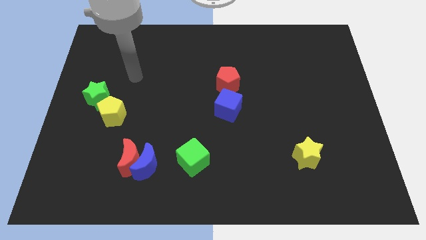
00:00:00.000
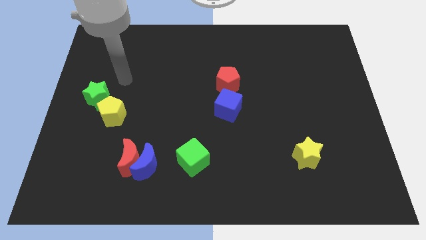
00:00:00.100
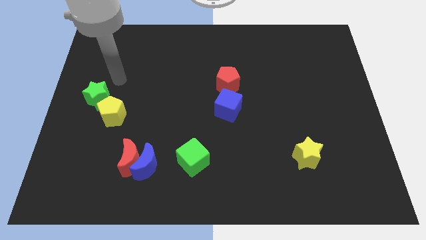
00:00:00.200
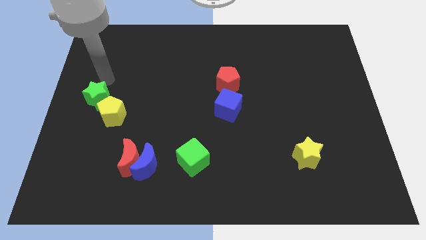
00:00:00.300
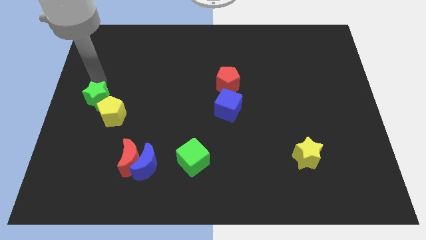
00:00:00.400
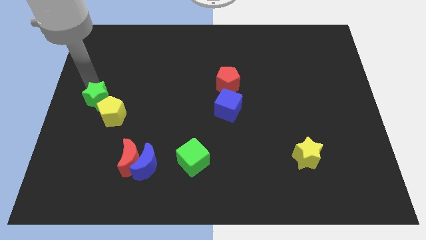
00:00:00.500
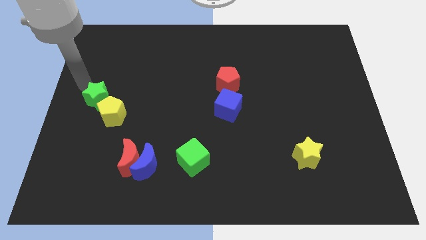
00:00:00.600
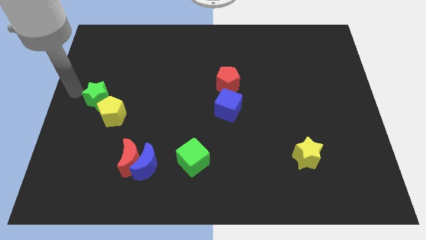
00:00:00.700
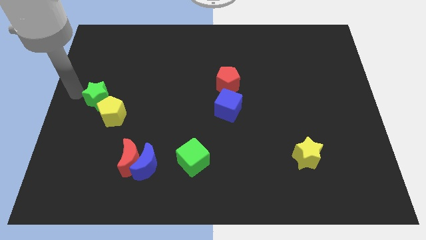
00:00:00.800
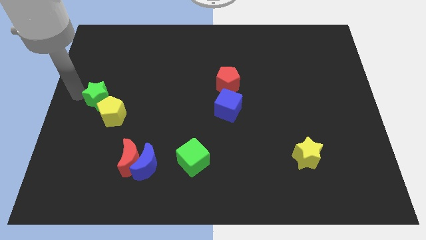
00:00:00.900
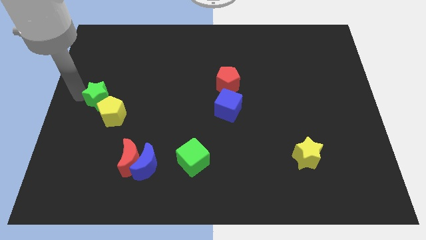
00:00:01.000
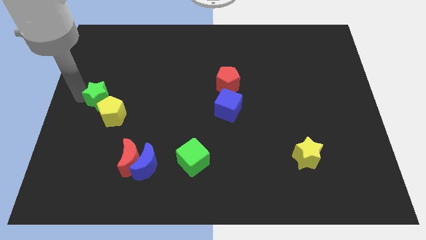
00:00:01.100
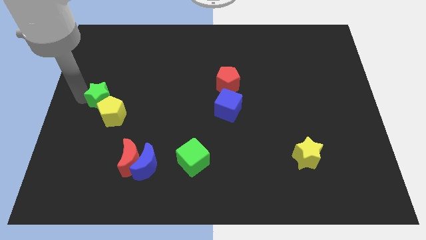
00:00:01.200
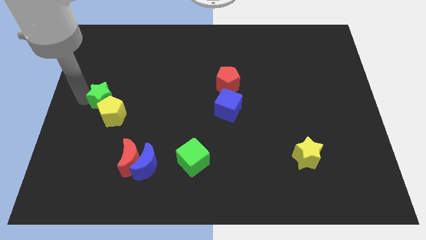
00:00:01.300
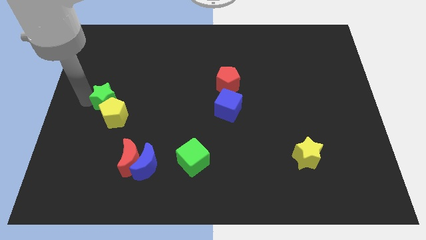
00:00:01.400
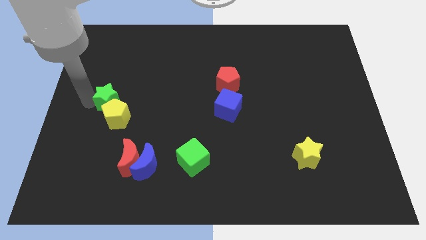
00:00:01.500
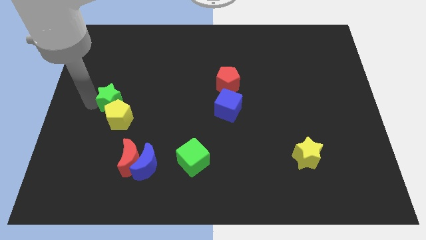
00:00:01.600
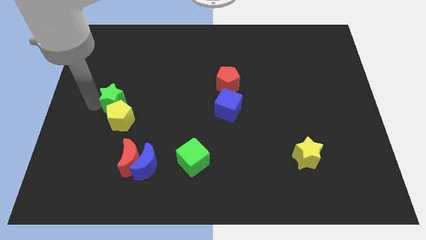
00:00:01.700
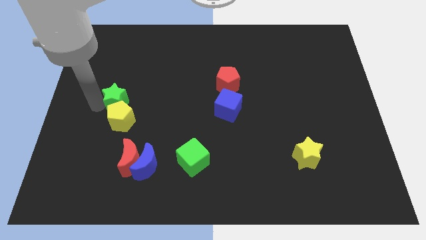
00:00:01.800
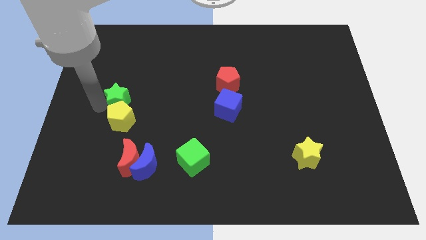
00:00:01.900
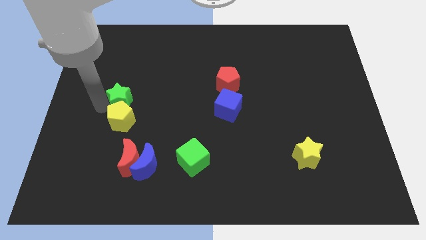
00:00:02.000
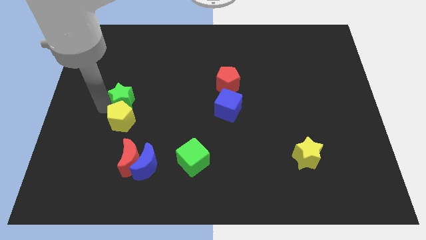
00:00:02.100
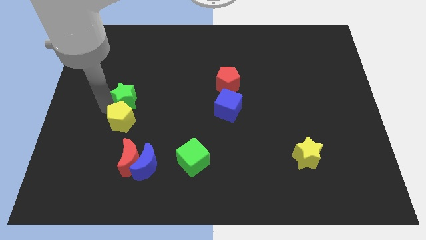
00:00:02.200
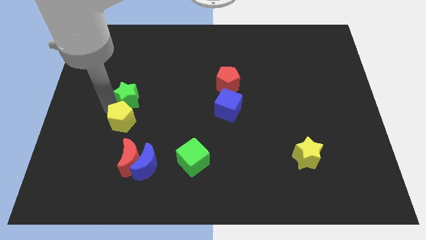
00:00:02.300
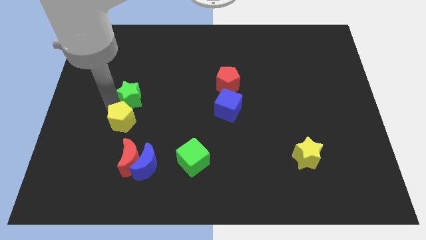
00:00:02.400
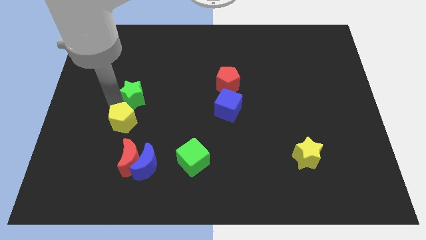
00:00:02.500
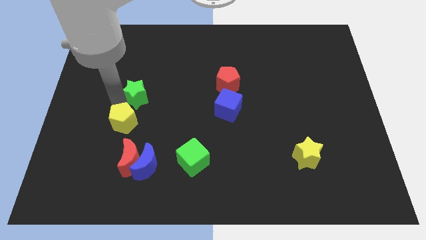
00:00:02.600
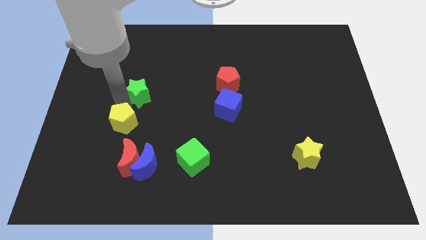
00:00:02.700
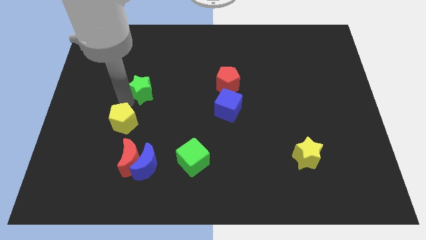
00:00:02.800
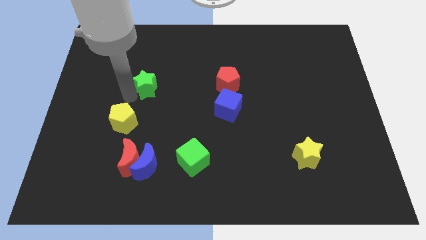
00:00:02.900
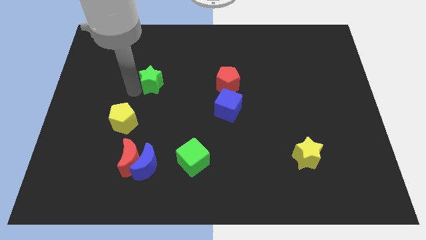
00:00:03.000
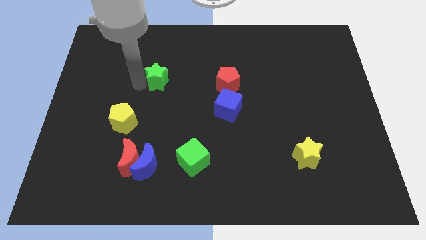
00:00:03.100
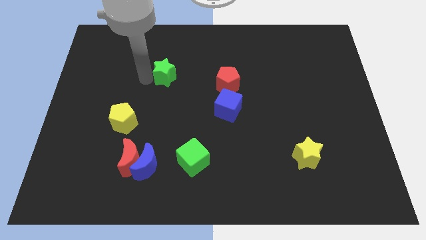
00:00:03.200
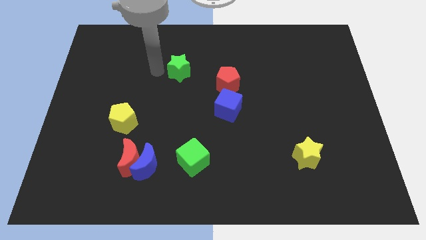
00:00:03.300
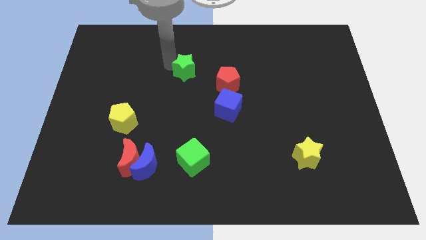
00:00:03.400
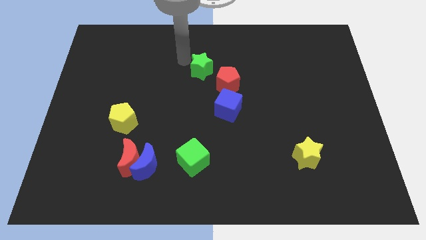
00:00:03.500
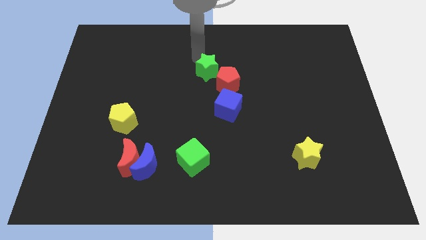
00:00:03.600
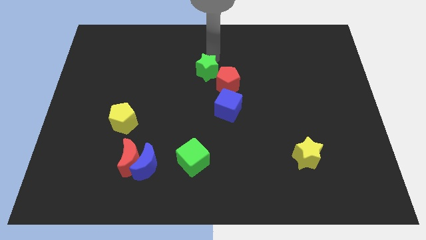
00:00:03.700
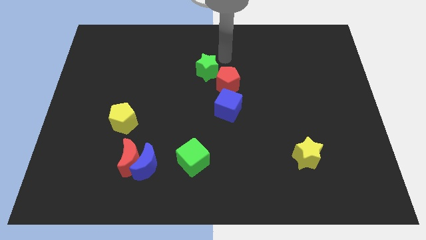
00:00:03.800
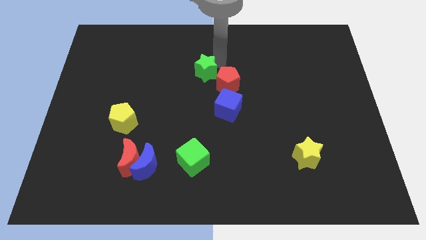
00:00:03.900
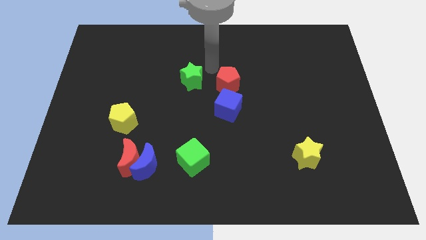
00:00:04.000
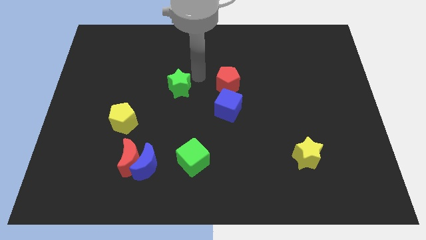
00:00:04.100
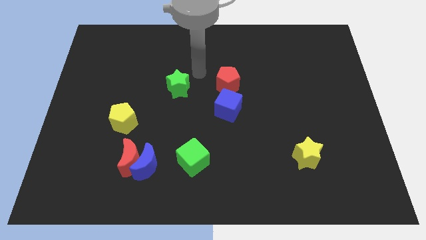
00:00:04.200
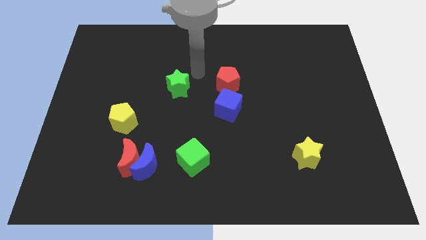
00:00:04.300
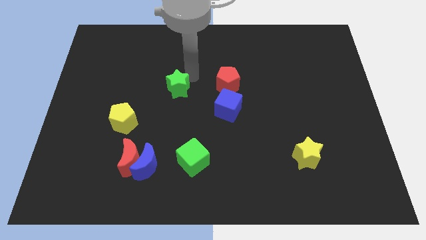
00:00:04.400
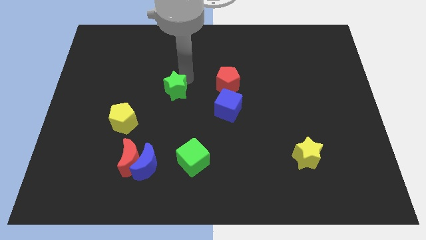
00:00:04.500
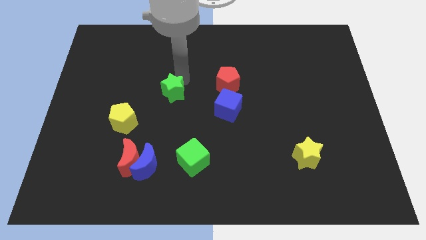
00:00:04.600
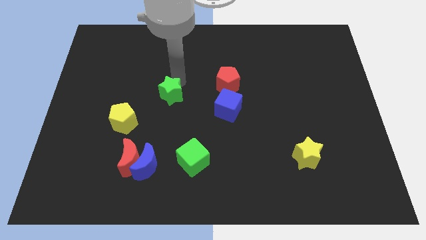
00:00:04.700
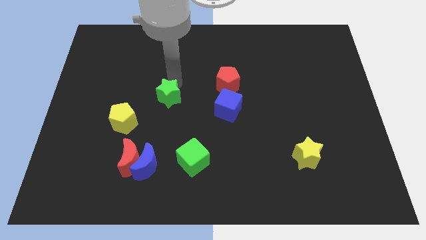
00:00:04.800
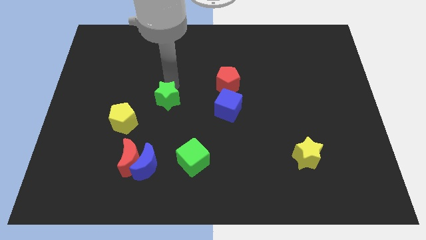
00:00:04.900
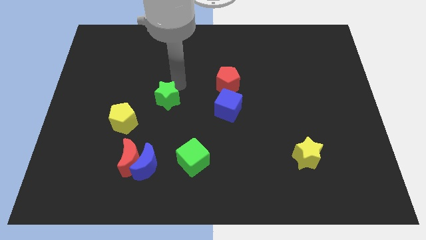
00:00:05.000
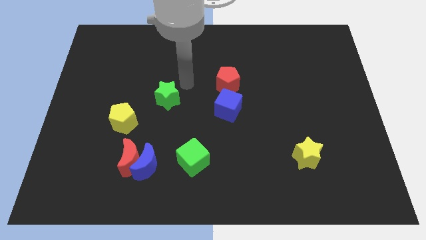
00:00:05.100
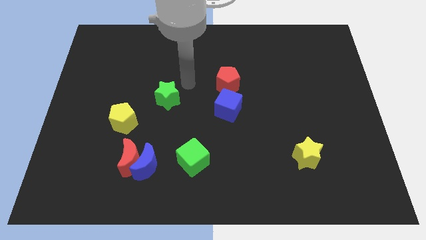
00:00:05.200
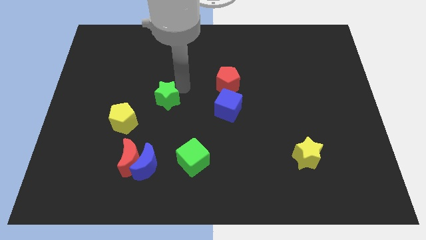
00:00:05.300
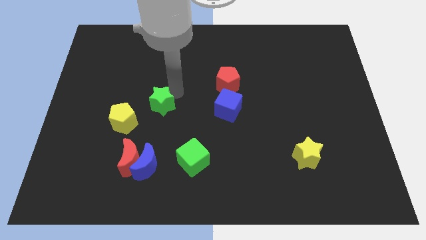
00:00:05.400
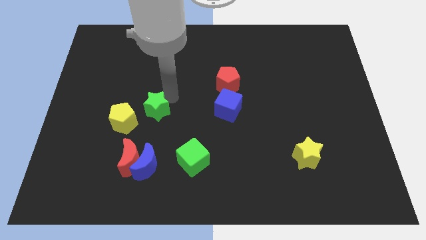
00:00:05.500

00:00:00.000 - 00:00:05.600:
put the green star to the top of the red moon

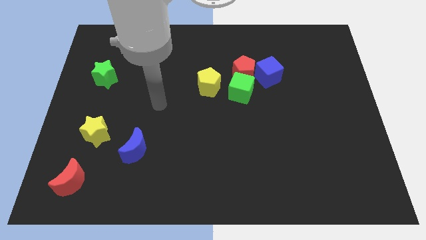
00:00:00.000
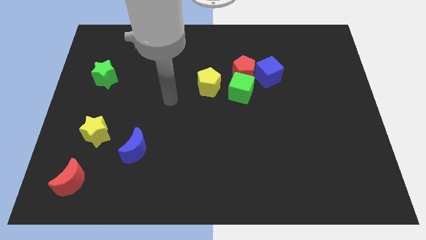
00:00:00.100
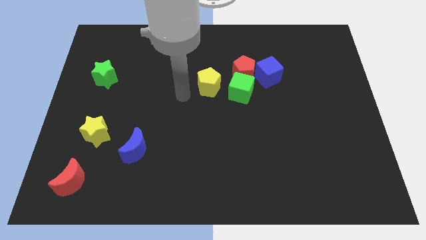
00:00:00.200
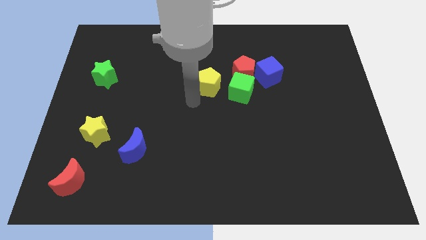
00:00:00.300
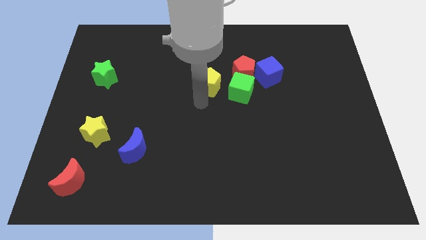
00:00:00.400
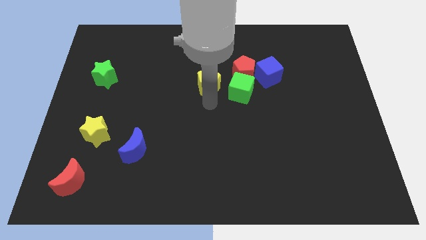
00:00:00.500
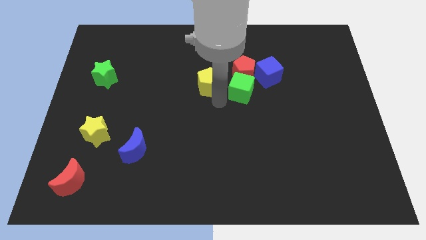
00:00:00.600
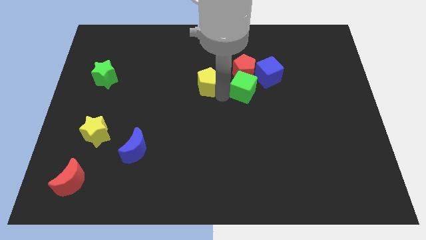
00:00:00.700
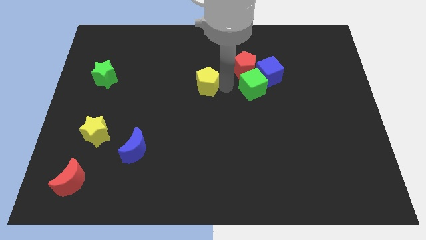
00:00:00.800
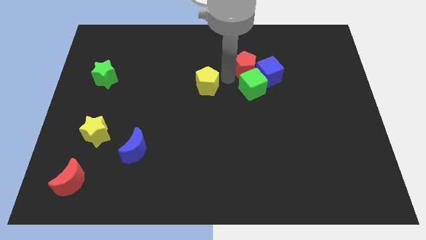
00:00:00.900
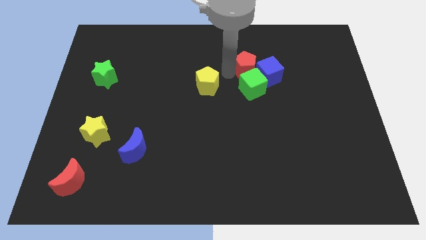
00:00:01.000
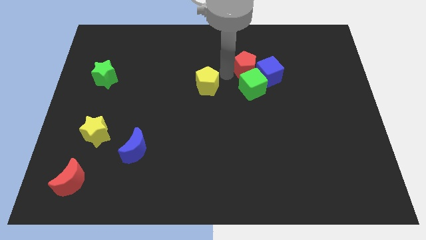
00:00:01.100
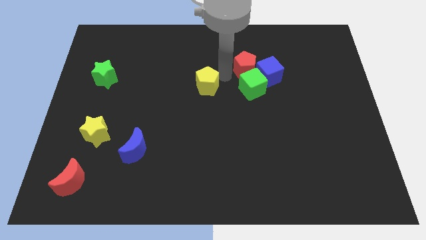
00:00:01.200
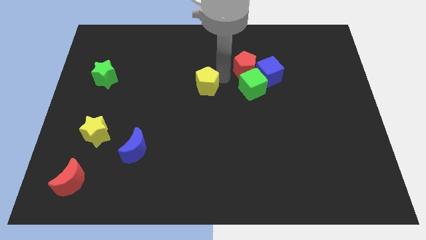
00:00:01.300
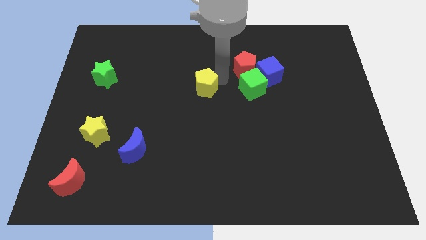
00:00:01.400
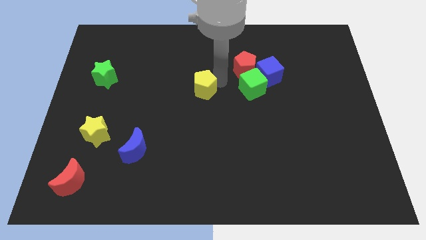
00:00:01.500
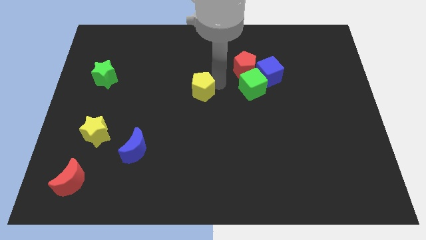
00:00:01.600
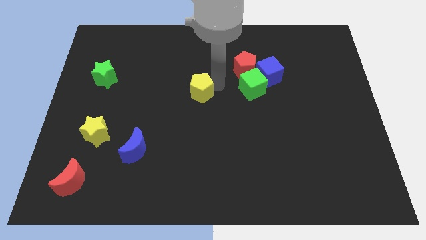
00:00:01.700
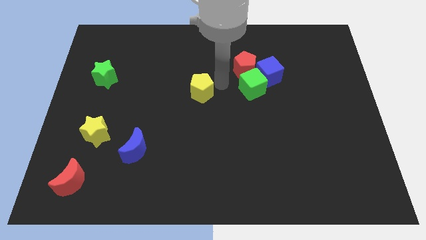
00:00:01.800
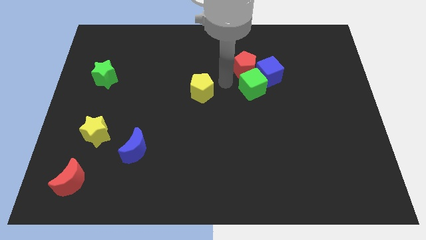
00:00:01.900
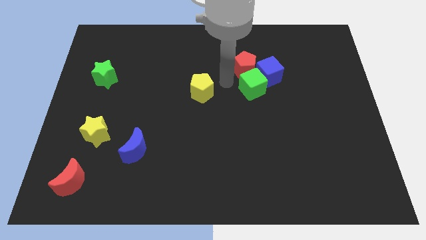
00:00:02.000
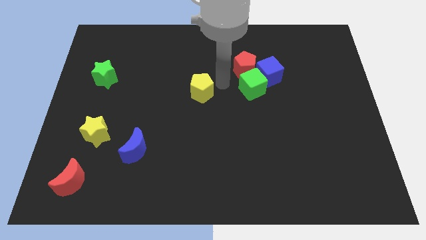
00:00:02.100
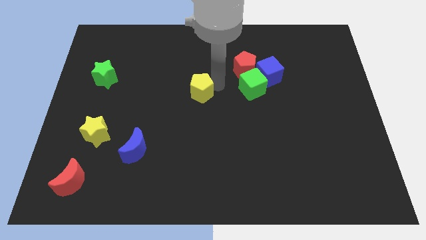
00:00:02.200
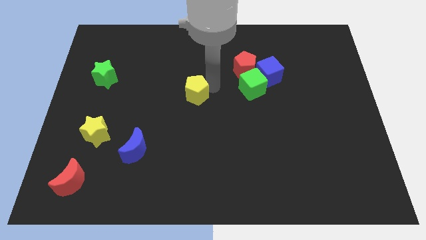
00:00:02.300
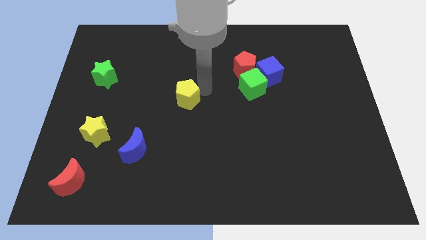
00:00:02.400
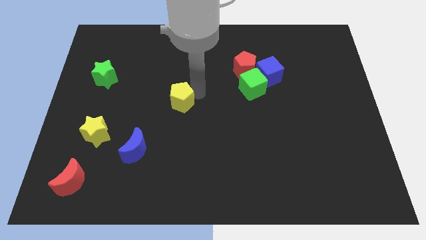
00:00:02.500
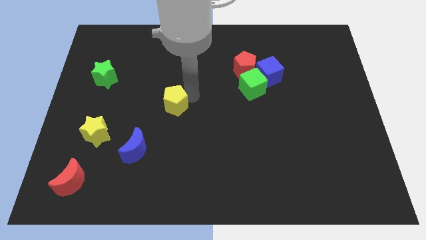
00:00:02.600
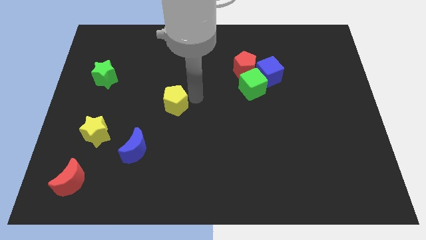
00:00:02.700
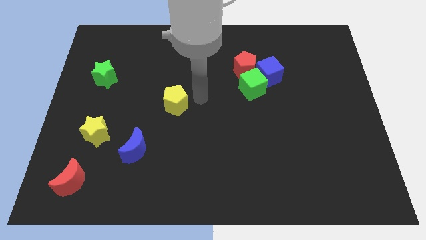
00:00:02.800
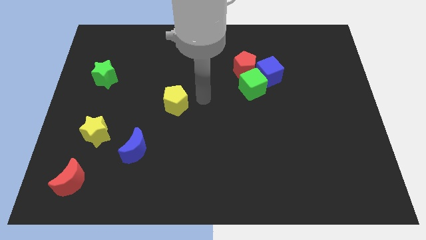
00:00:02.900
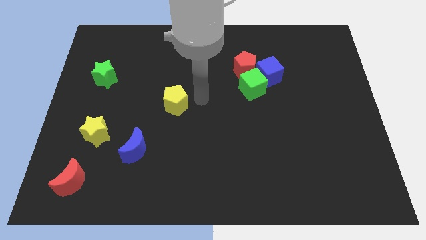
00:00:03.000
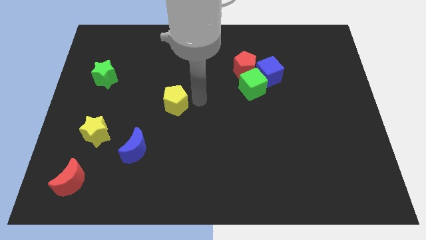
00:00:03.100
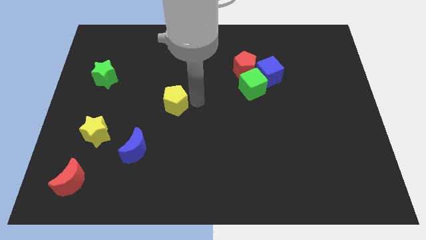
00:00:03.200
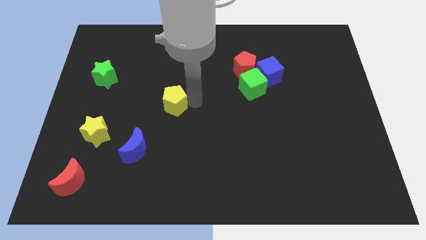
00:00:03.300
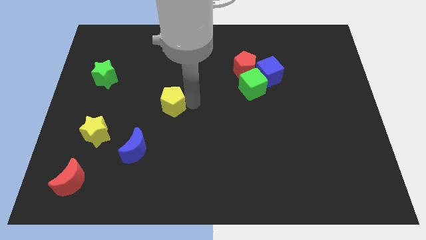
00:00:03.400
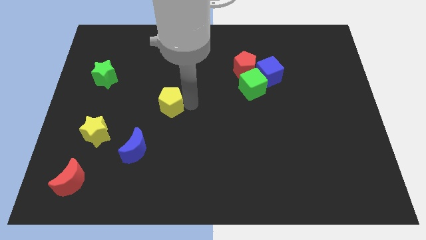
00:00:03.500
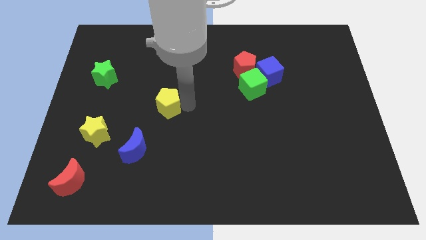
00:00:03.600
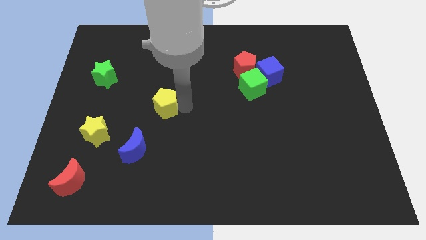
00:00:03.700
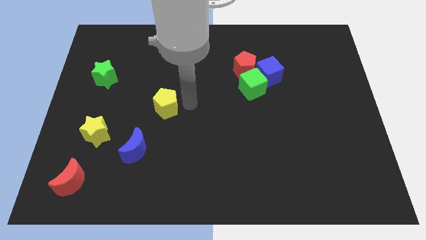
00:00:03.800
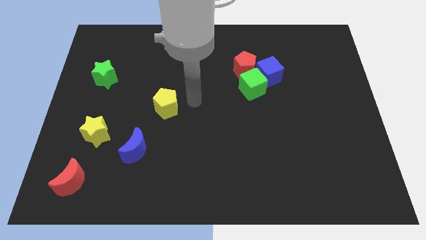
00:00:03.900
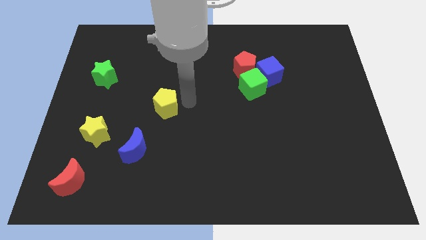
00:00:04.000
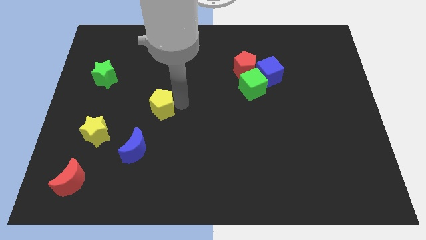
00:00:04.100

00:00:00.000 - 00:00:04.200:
push the yellow pentagon above the blue moon
